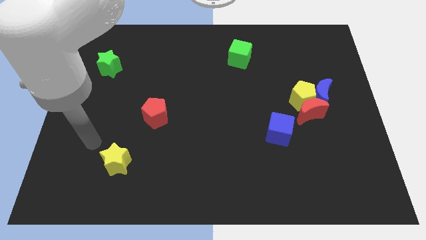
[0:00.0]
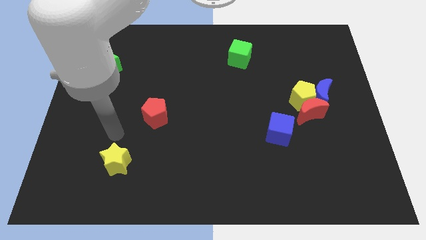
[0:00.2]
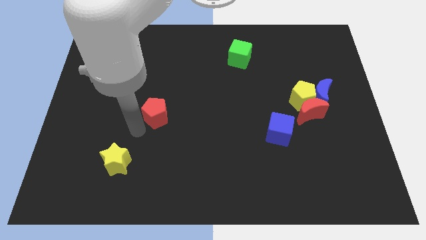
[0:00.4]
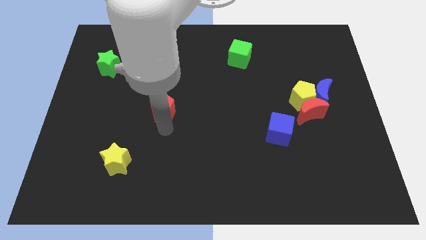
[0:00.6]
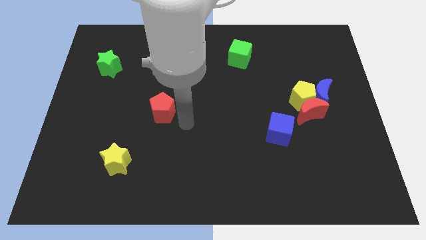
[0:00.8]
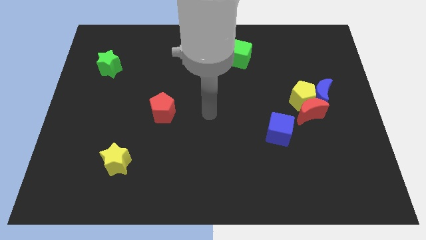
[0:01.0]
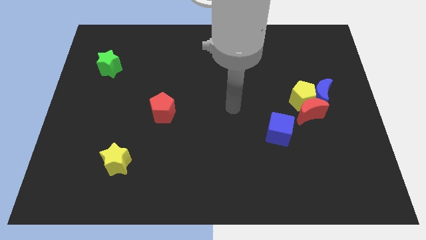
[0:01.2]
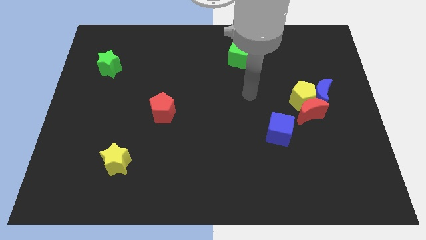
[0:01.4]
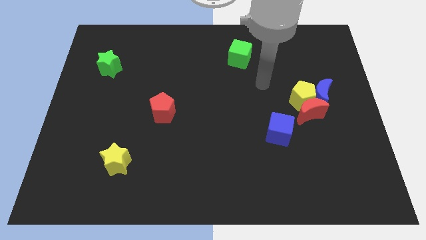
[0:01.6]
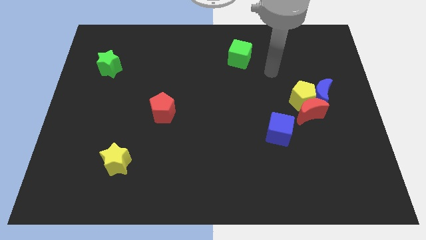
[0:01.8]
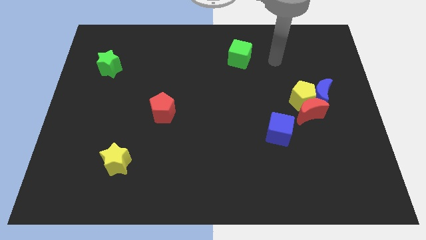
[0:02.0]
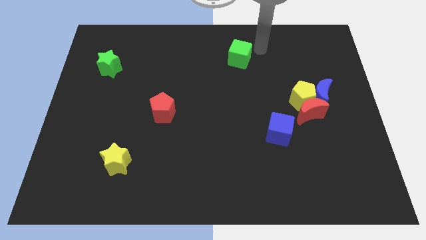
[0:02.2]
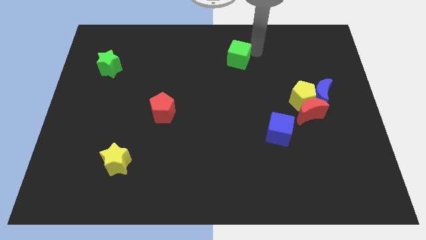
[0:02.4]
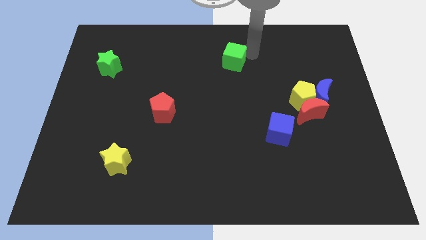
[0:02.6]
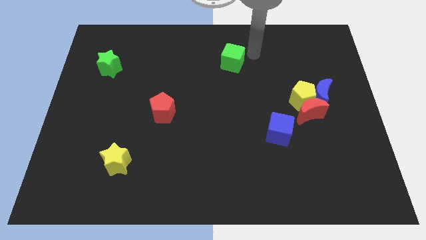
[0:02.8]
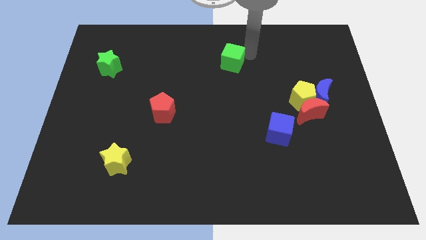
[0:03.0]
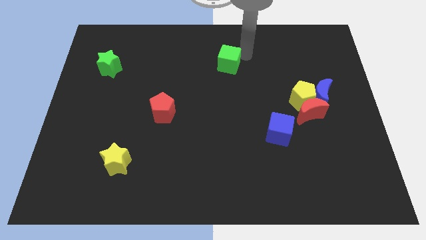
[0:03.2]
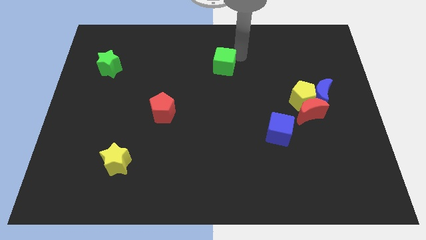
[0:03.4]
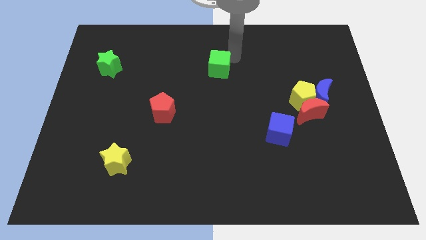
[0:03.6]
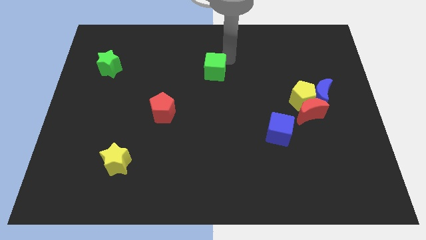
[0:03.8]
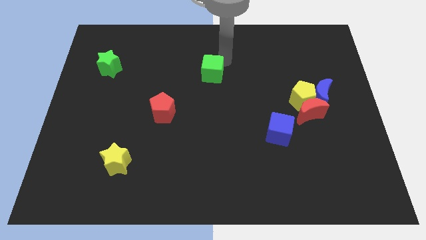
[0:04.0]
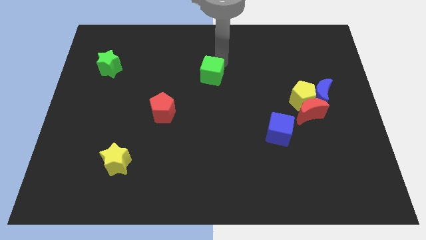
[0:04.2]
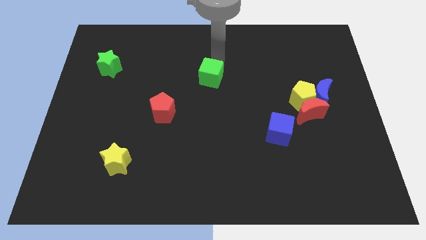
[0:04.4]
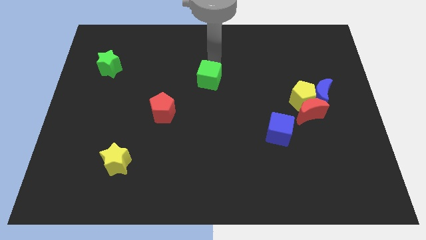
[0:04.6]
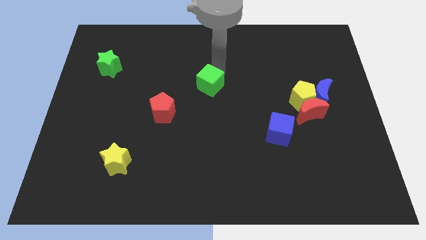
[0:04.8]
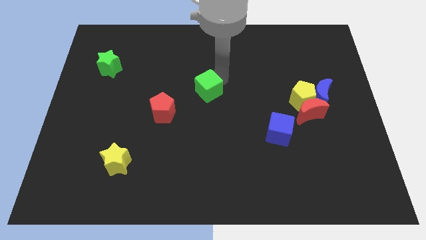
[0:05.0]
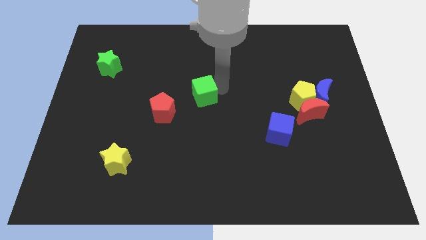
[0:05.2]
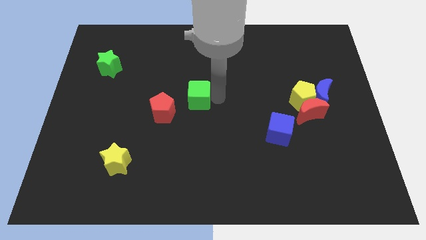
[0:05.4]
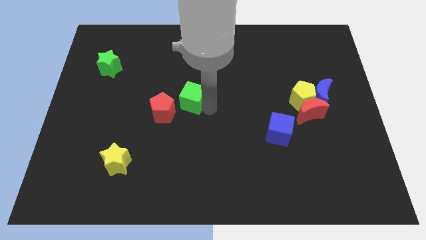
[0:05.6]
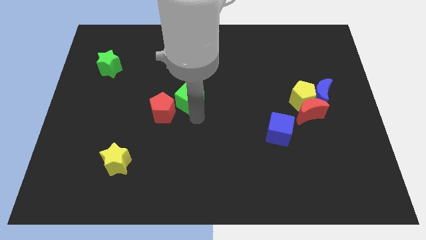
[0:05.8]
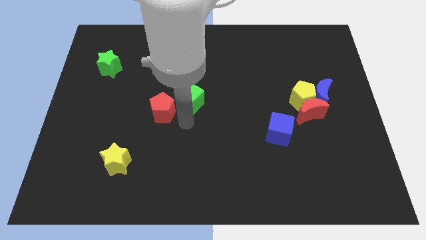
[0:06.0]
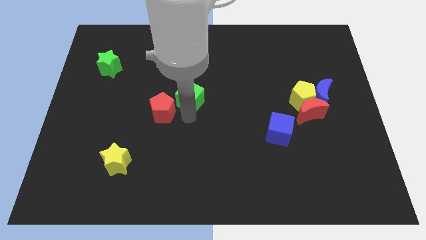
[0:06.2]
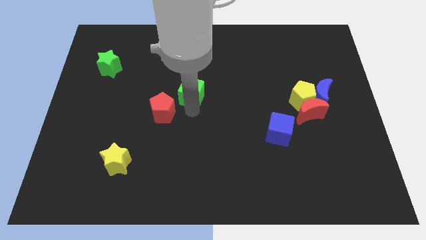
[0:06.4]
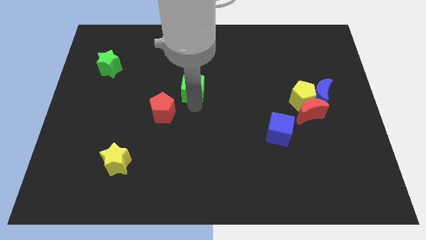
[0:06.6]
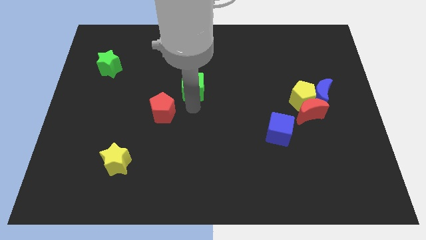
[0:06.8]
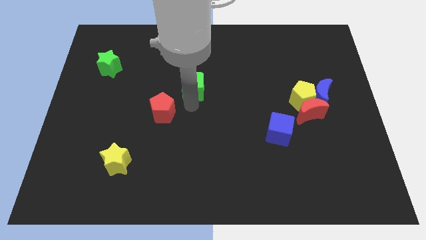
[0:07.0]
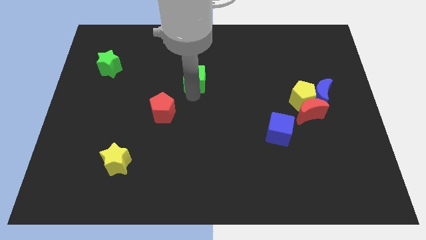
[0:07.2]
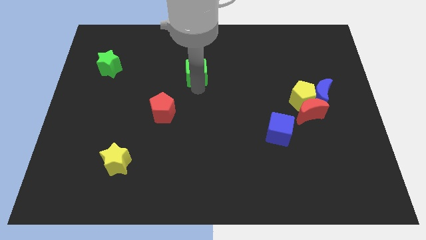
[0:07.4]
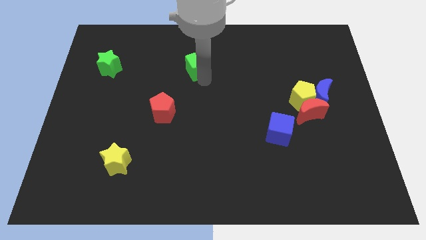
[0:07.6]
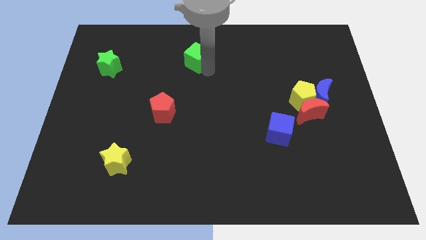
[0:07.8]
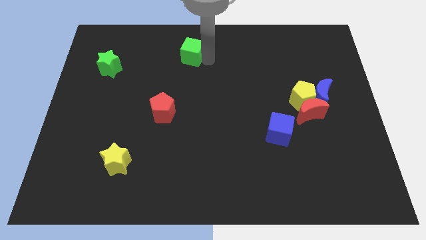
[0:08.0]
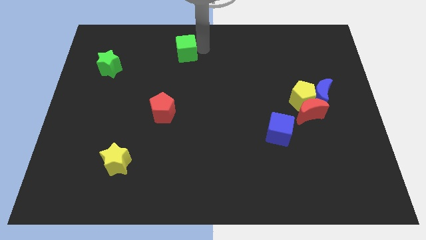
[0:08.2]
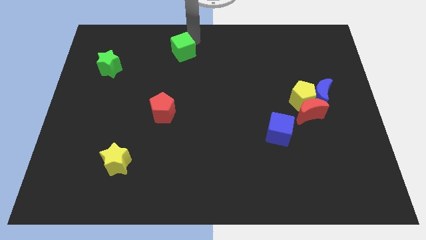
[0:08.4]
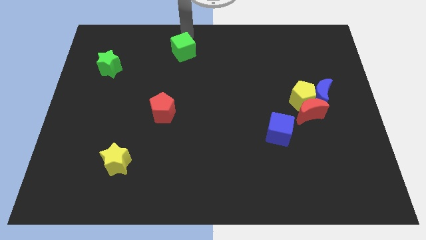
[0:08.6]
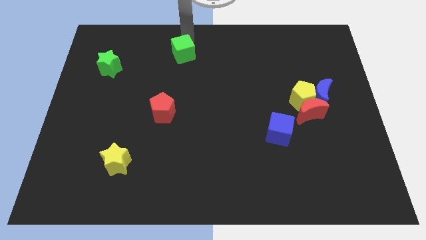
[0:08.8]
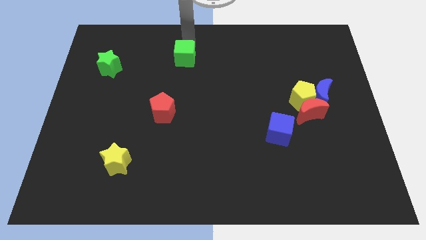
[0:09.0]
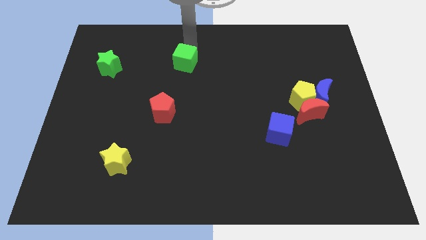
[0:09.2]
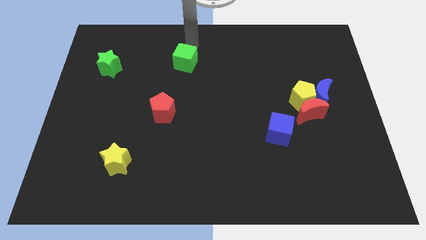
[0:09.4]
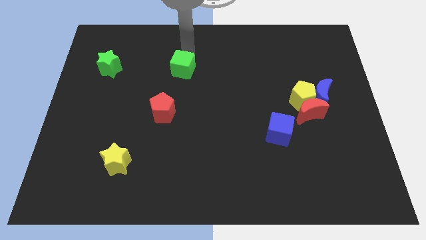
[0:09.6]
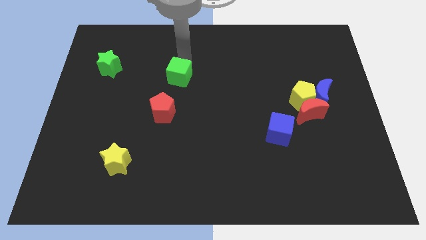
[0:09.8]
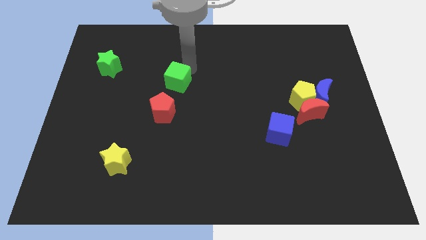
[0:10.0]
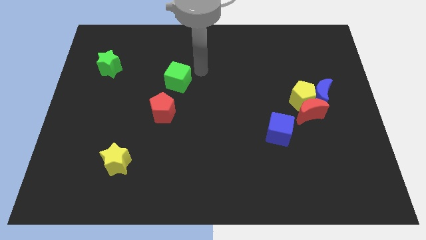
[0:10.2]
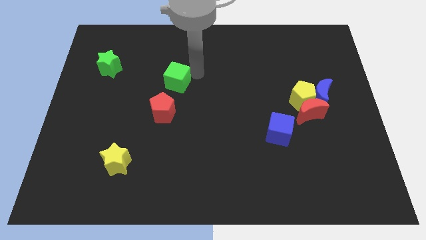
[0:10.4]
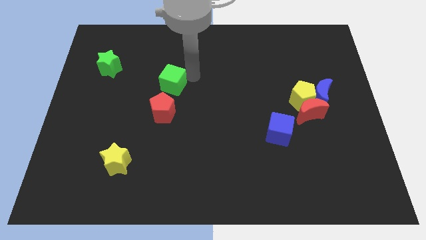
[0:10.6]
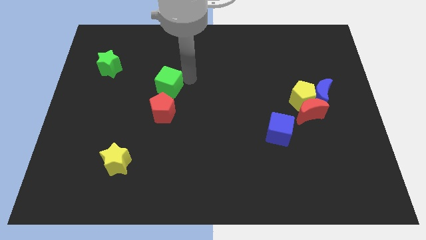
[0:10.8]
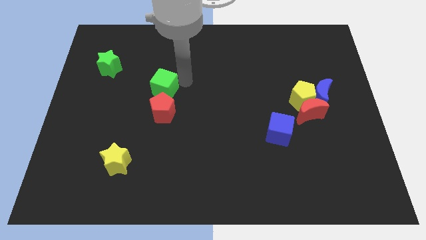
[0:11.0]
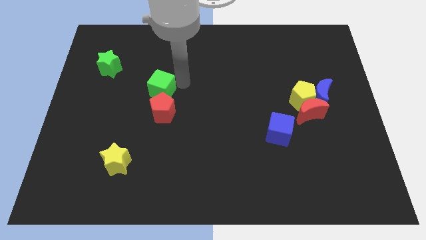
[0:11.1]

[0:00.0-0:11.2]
slide the green cube to the top left of the red pentagon

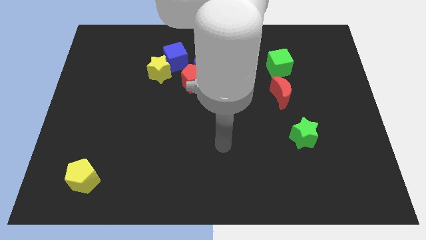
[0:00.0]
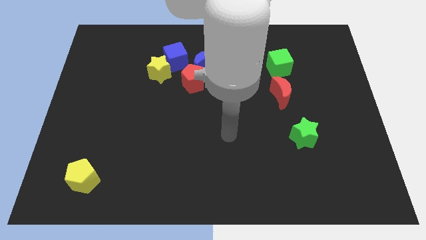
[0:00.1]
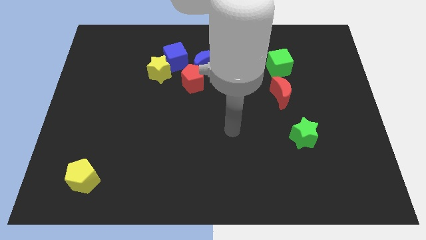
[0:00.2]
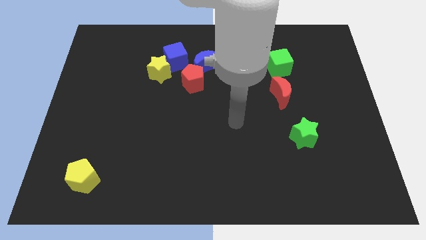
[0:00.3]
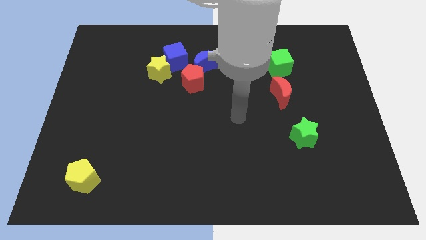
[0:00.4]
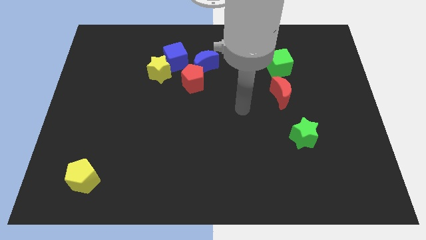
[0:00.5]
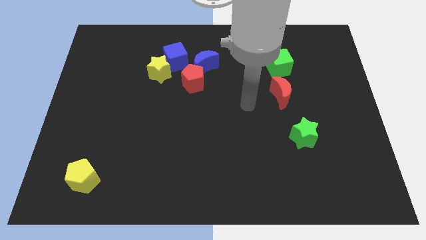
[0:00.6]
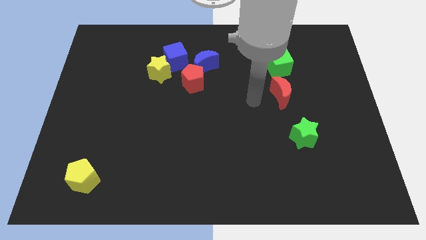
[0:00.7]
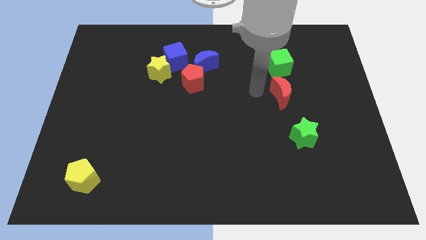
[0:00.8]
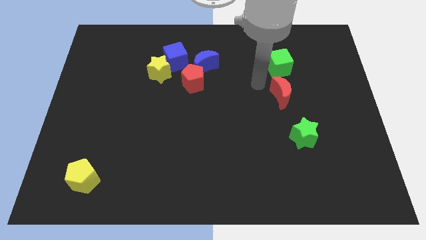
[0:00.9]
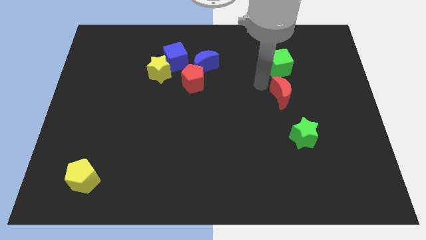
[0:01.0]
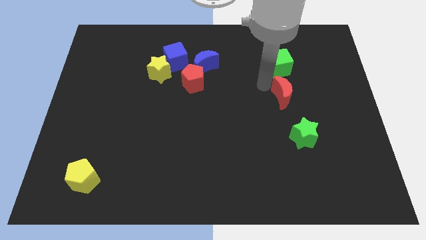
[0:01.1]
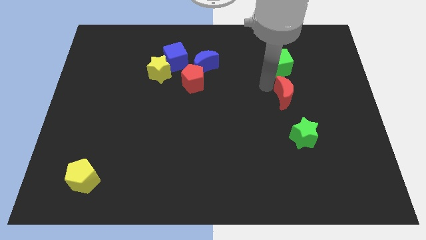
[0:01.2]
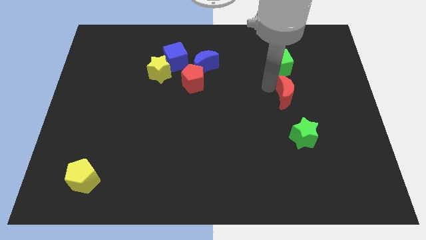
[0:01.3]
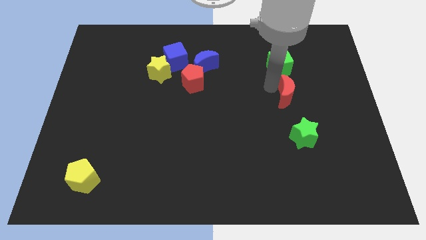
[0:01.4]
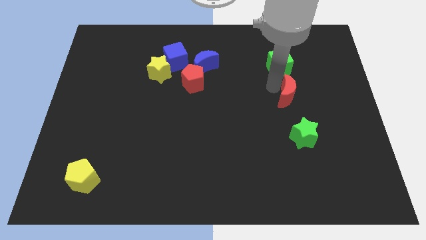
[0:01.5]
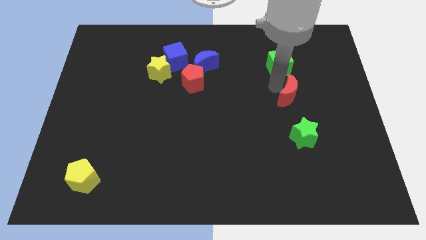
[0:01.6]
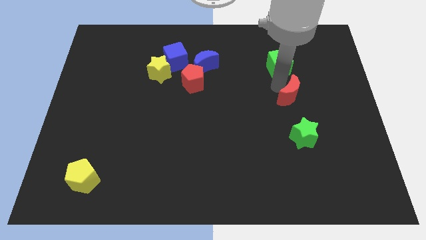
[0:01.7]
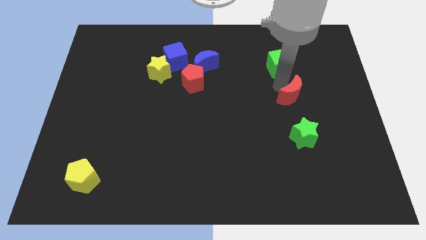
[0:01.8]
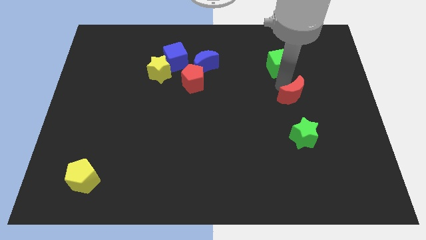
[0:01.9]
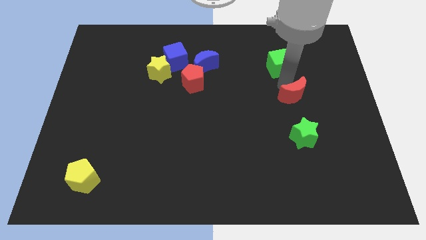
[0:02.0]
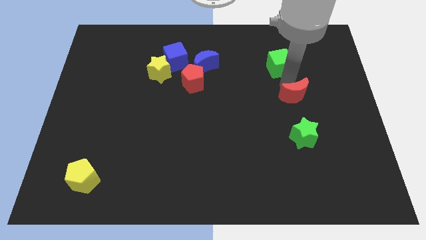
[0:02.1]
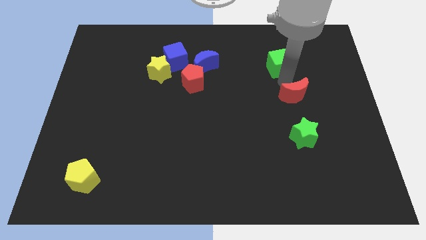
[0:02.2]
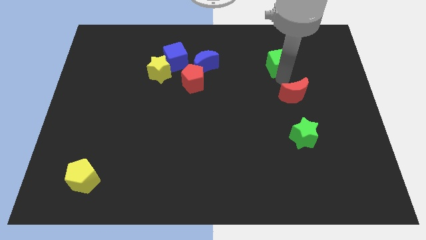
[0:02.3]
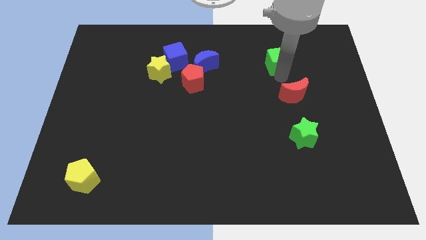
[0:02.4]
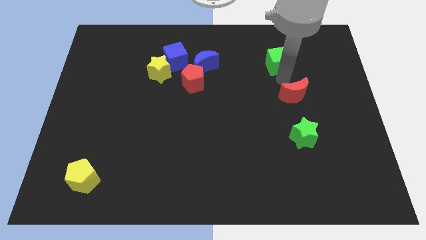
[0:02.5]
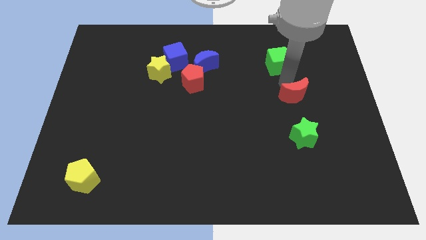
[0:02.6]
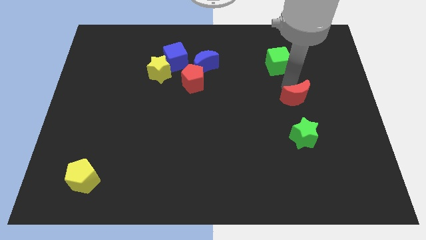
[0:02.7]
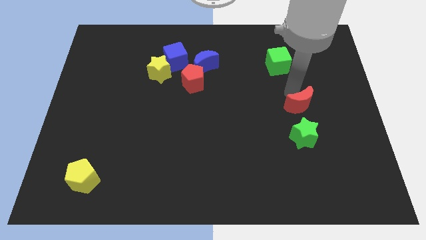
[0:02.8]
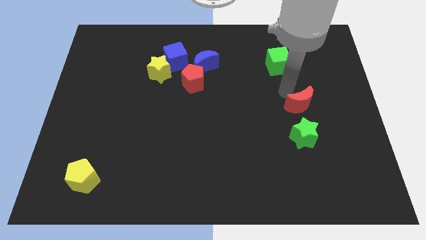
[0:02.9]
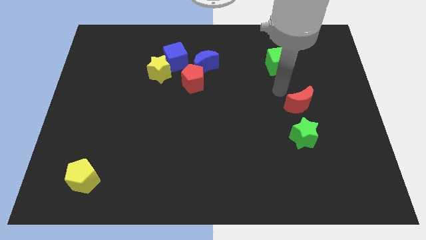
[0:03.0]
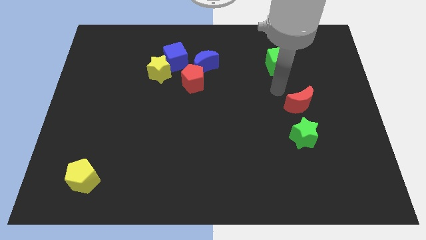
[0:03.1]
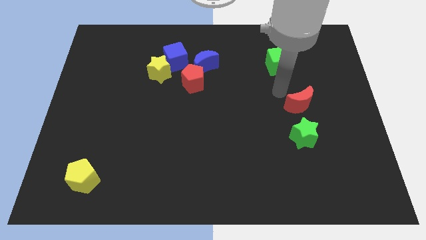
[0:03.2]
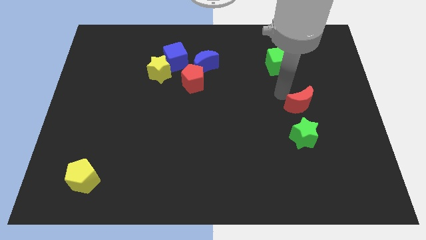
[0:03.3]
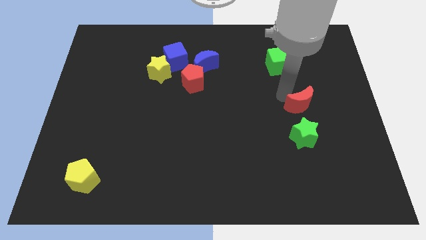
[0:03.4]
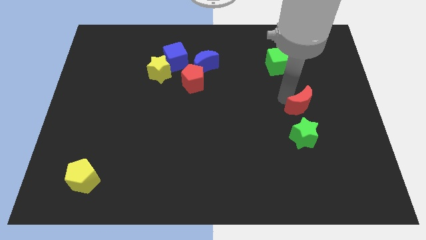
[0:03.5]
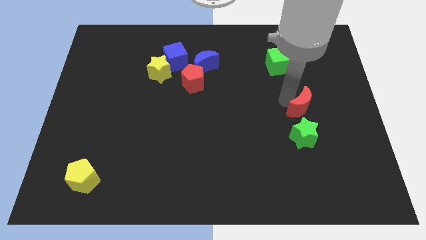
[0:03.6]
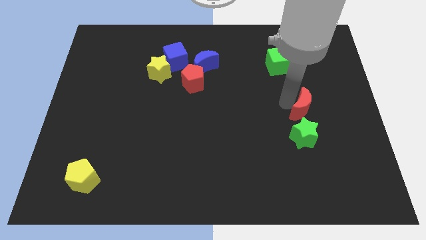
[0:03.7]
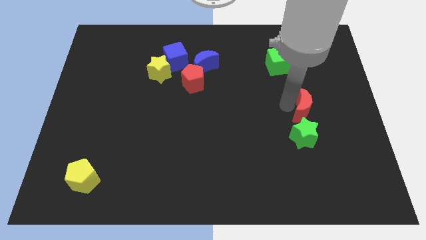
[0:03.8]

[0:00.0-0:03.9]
put the red moon to the top right of the green star
